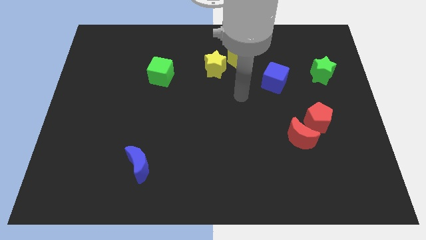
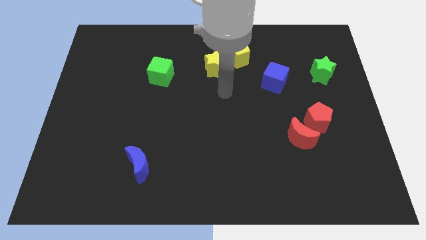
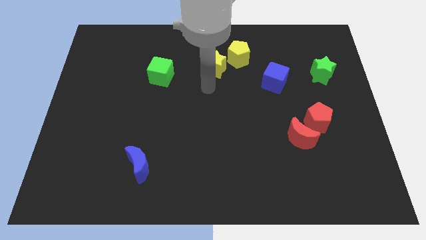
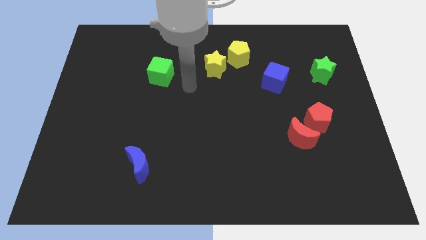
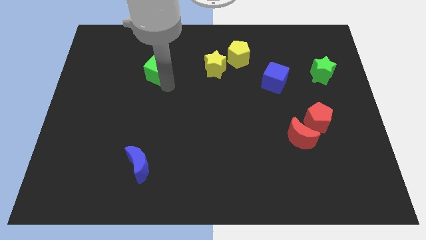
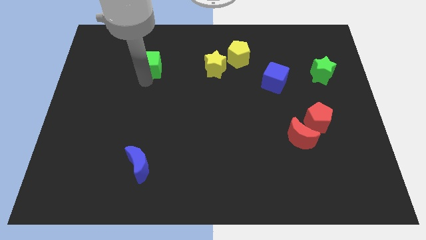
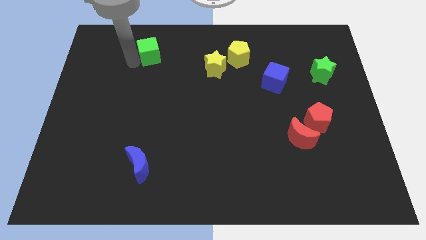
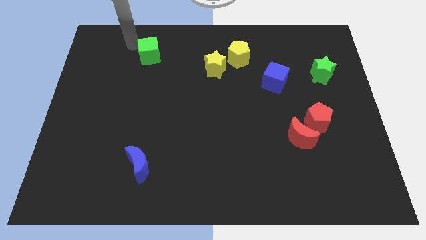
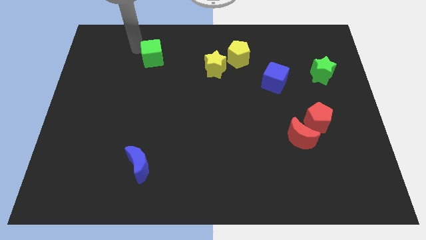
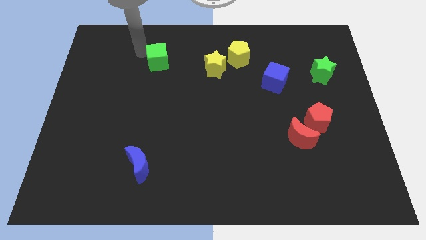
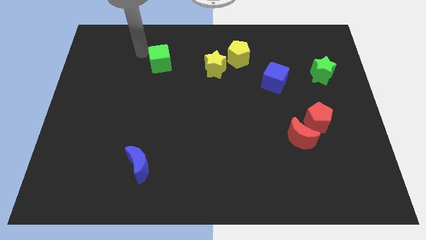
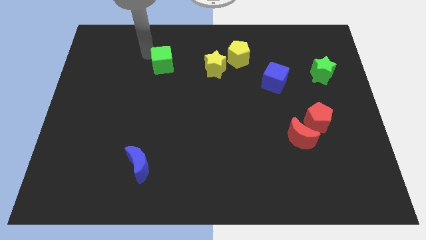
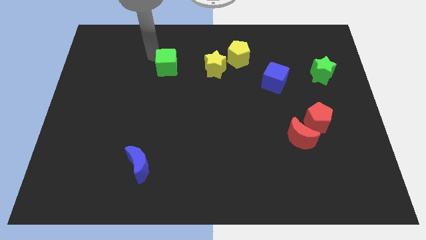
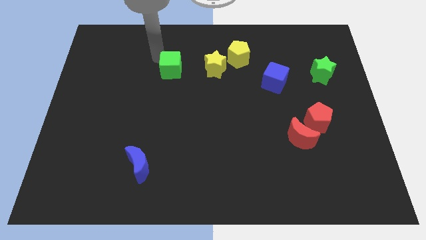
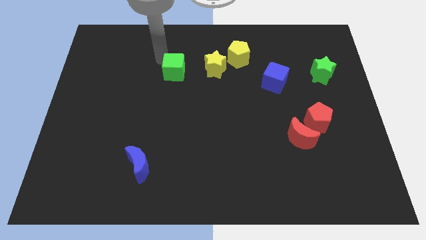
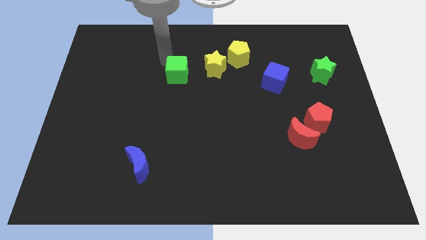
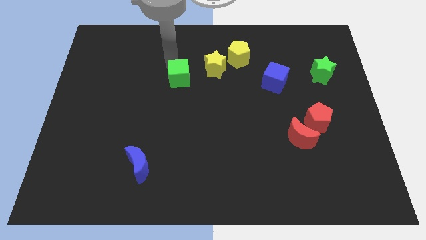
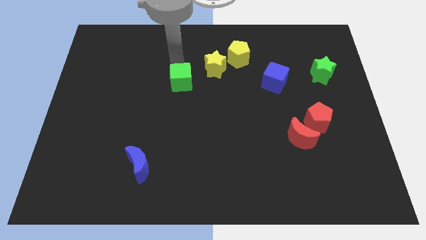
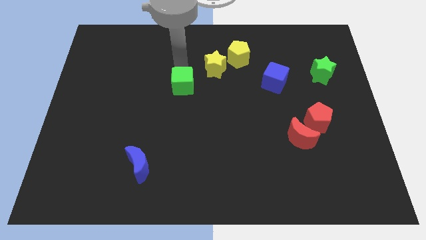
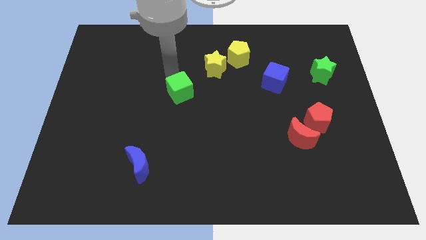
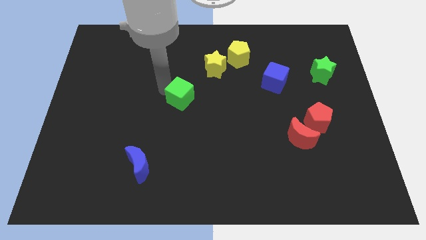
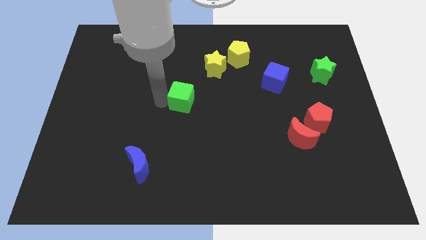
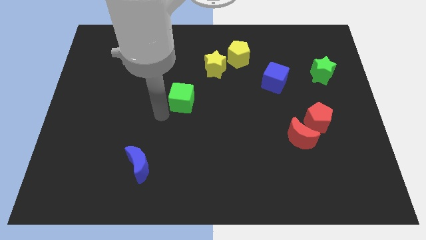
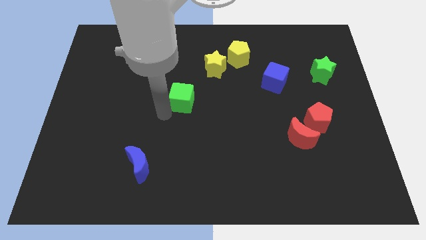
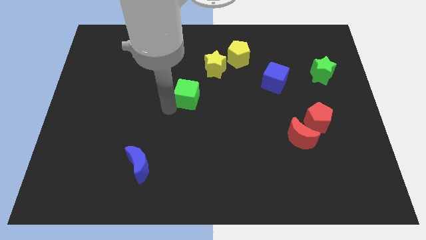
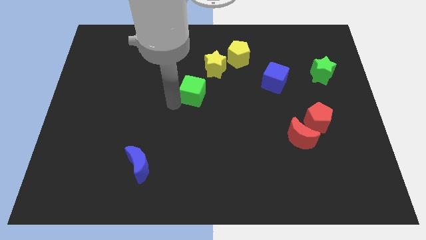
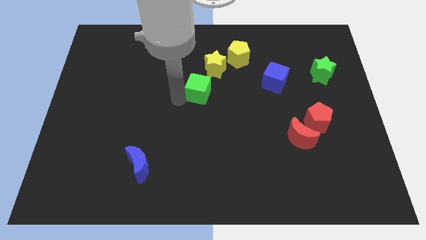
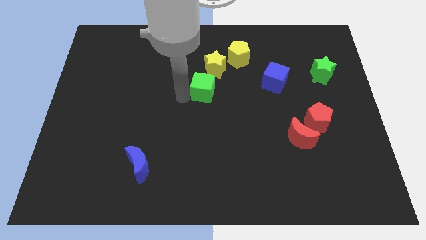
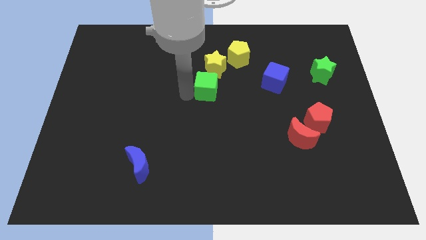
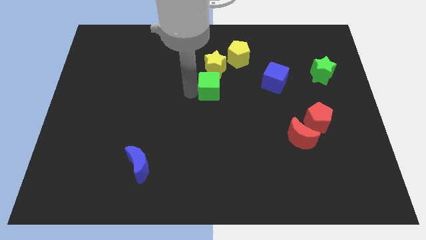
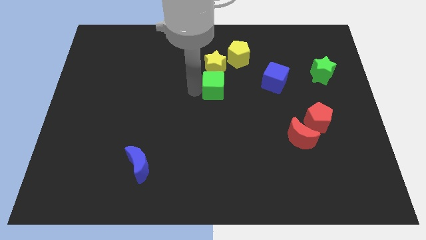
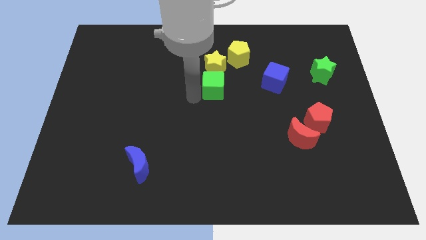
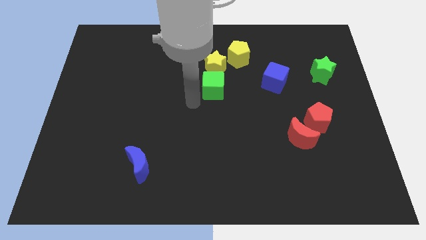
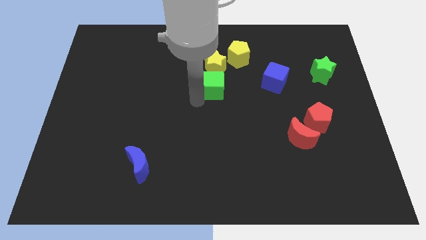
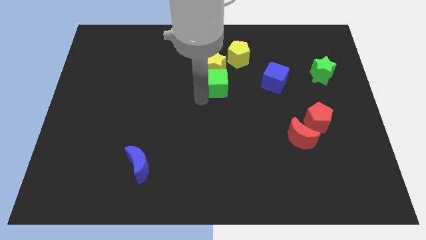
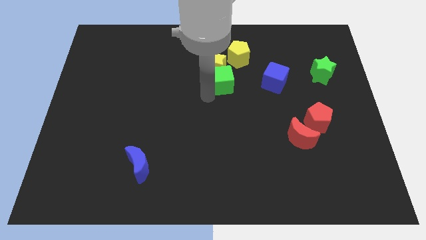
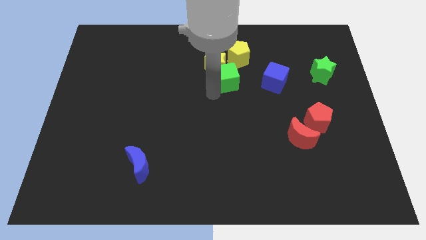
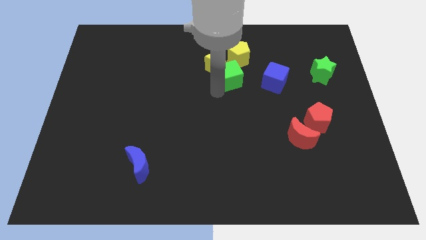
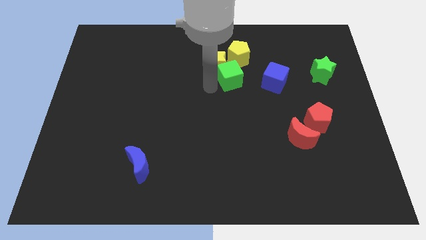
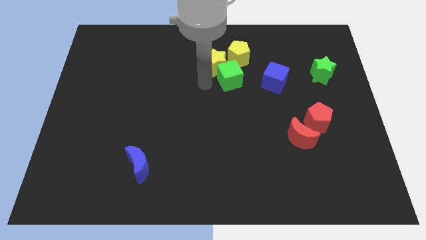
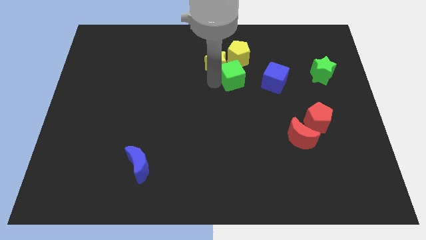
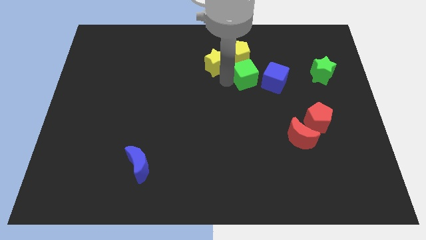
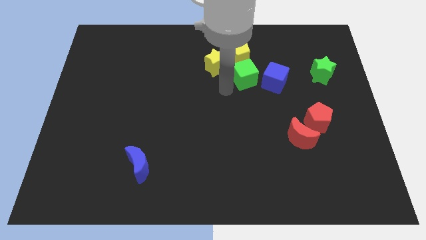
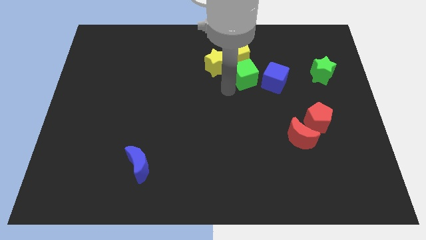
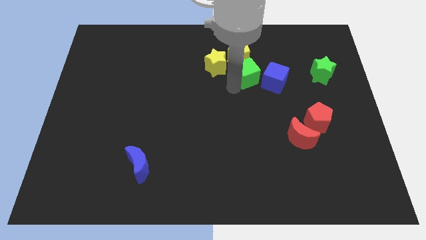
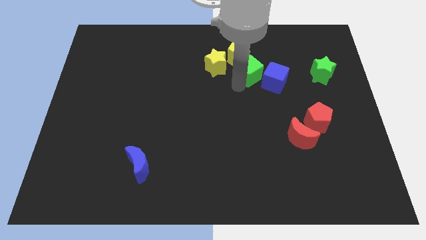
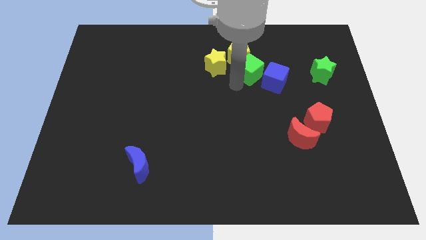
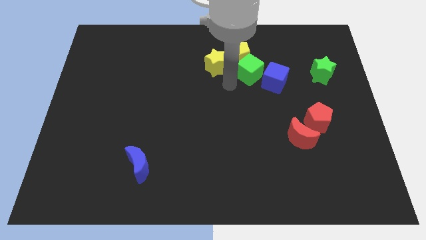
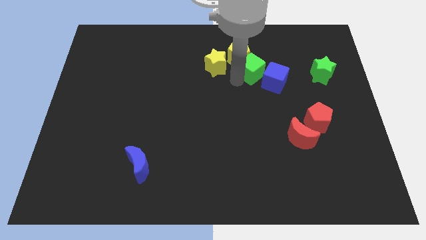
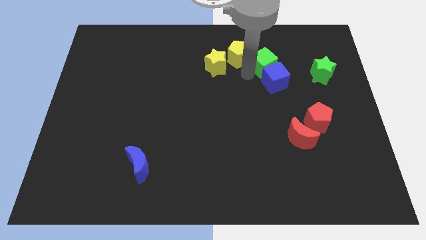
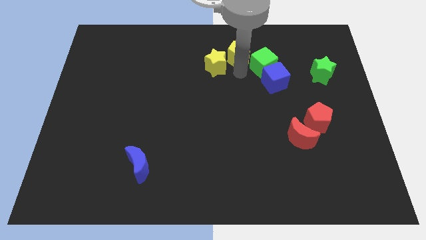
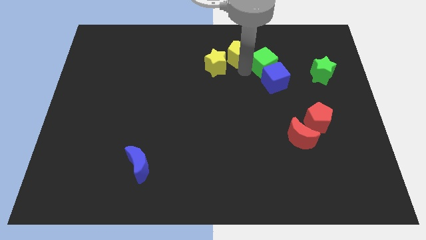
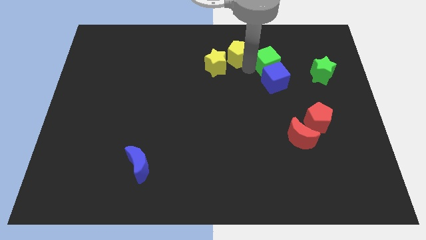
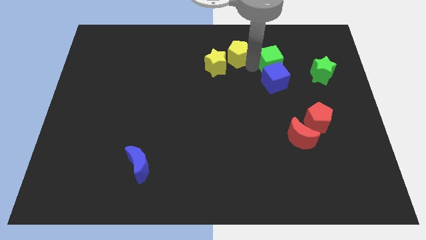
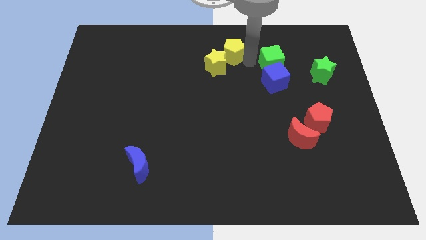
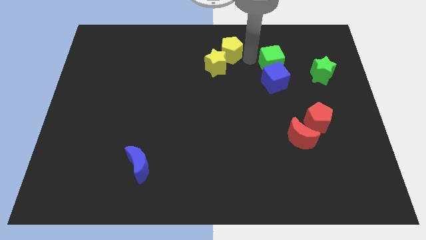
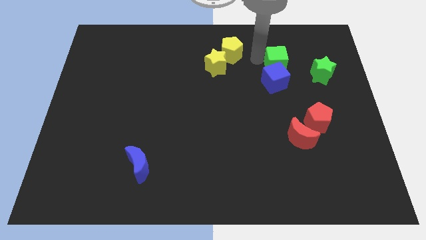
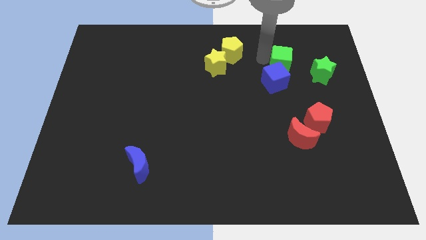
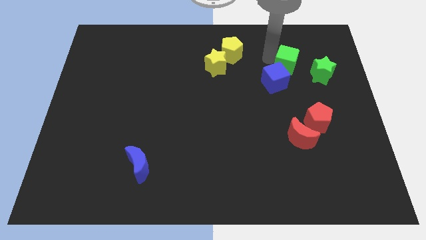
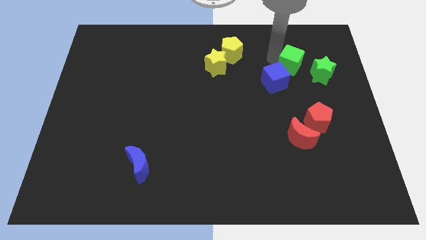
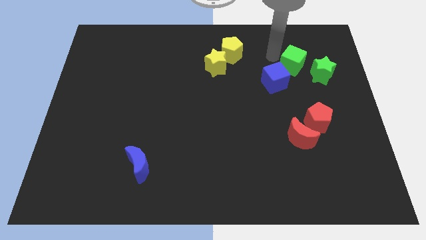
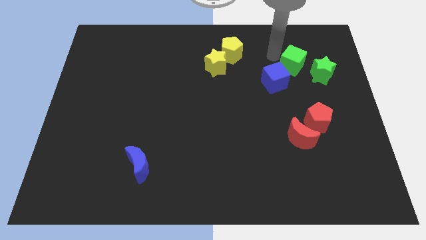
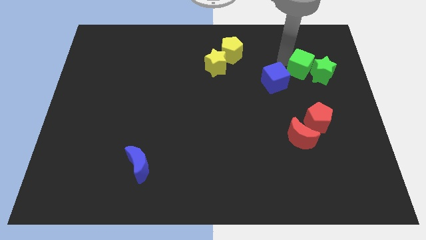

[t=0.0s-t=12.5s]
slide the green cube close to the green star

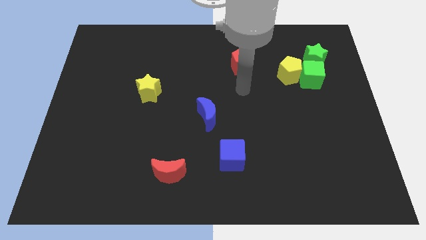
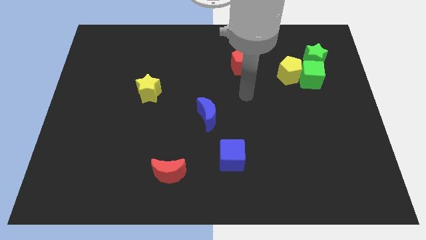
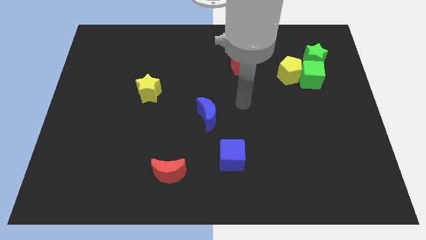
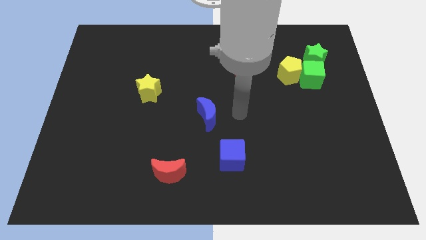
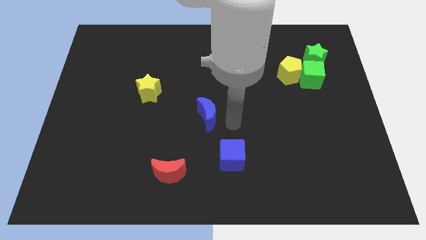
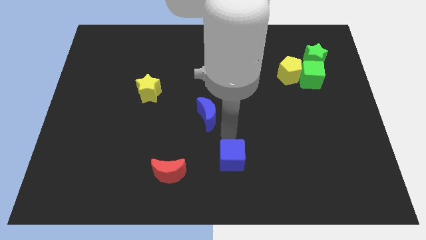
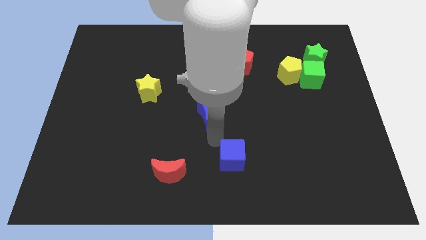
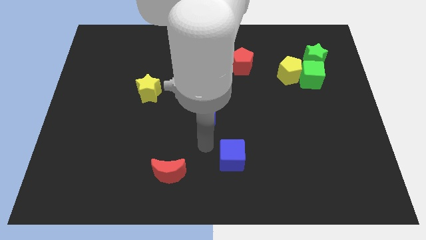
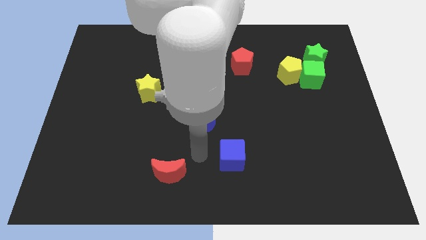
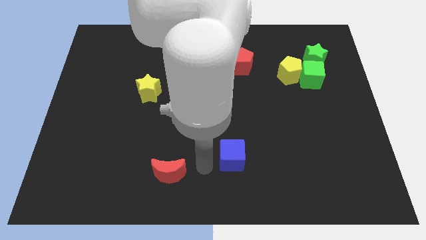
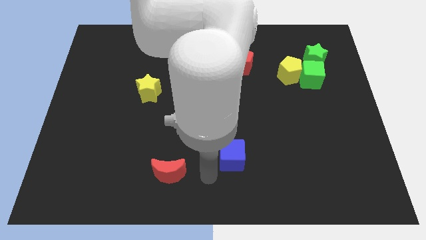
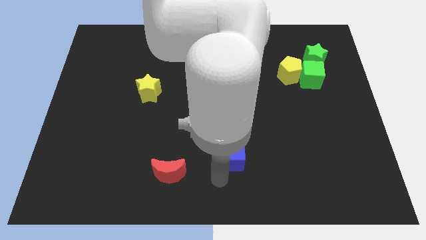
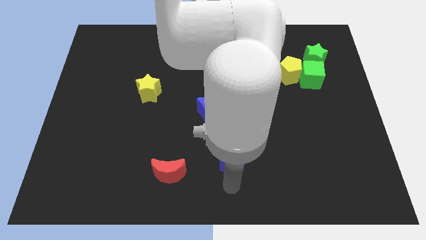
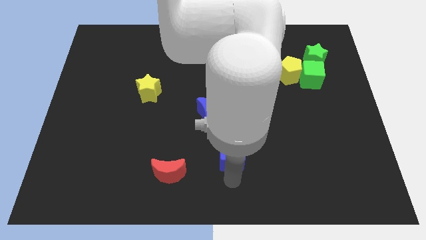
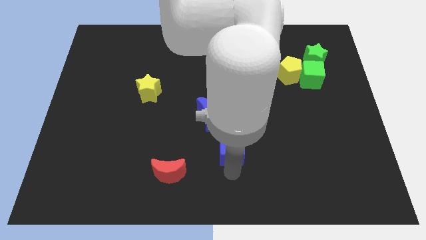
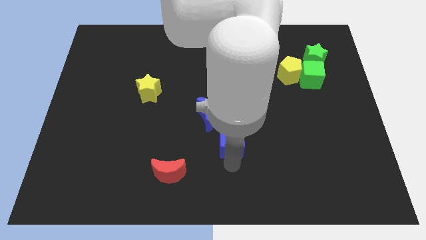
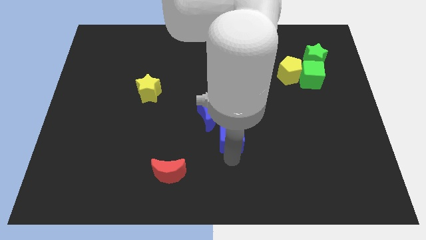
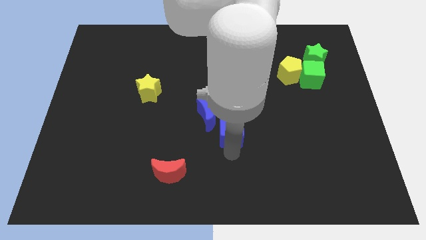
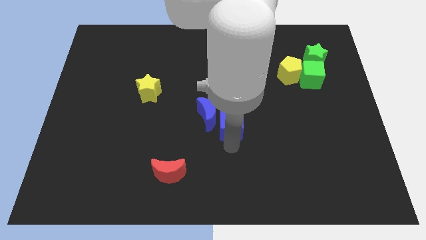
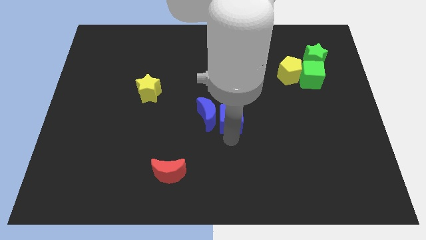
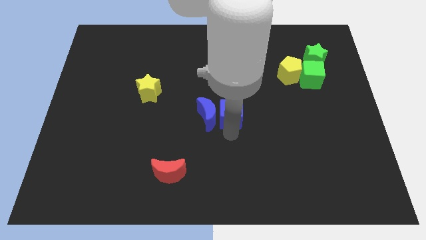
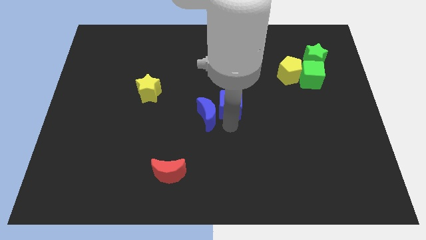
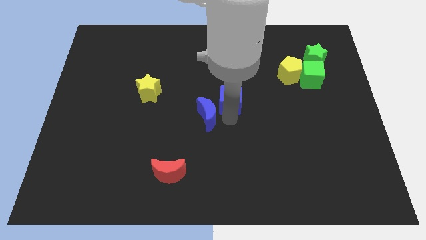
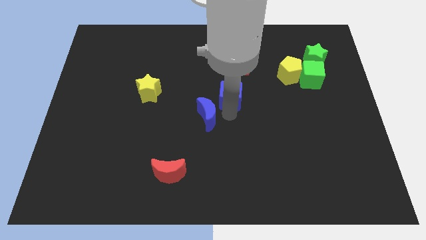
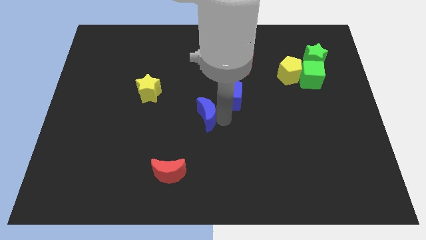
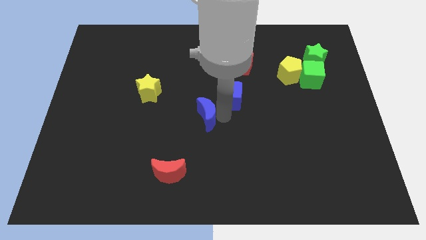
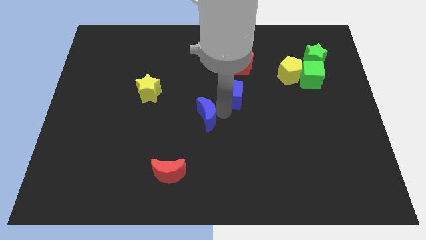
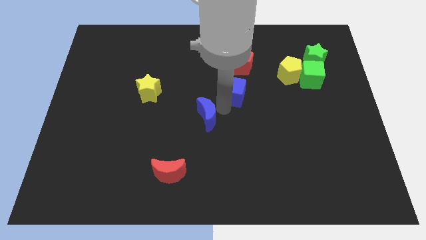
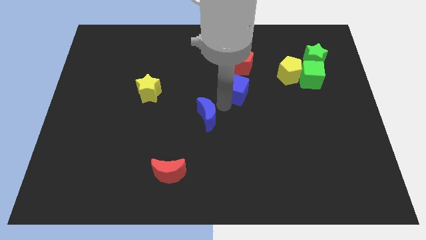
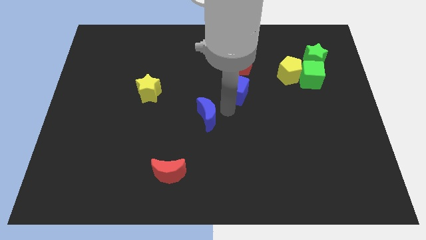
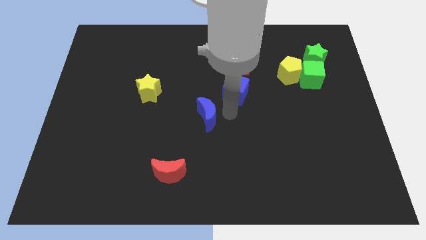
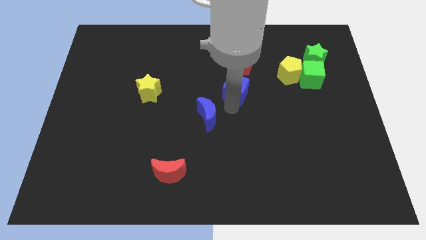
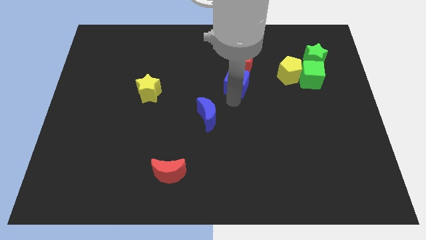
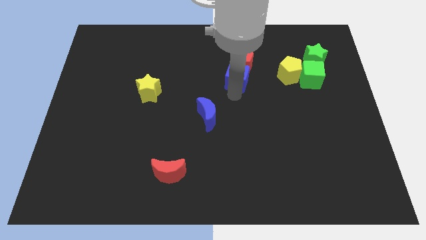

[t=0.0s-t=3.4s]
push the blue cube towards the red pentagon
